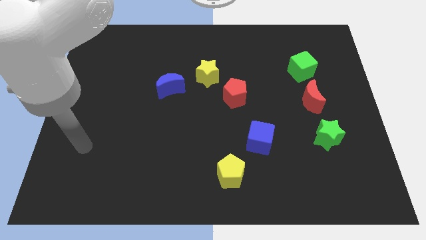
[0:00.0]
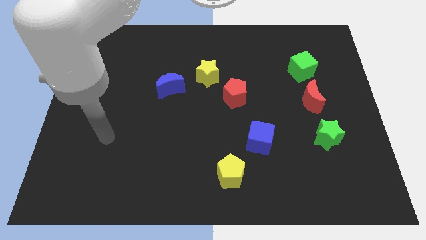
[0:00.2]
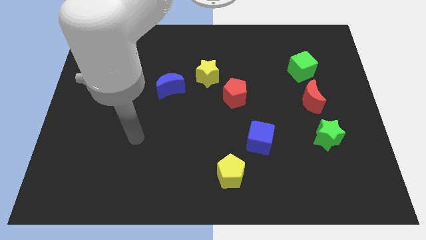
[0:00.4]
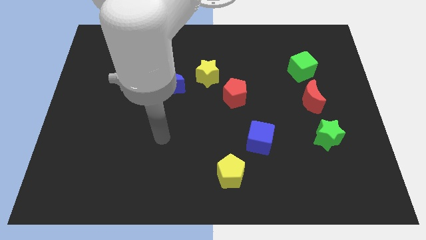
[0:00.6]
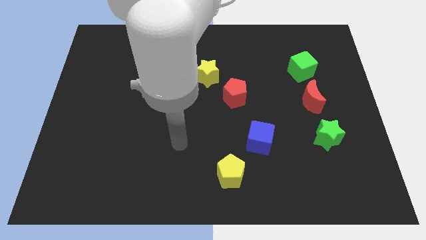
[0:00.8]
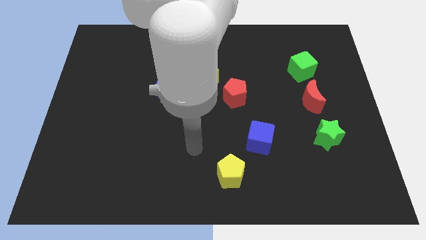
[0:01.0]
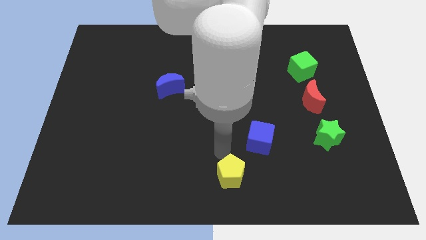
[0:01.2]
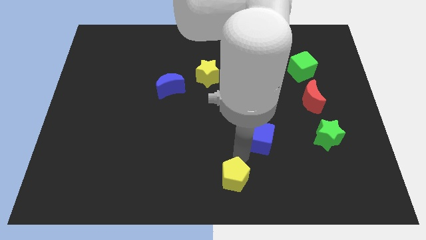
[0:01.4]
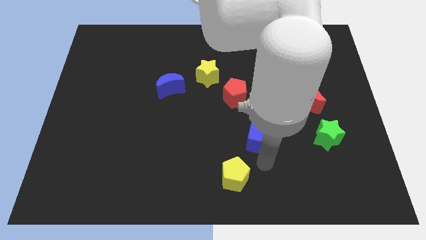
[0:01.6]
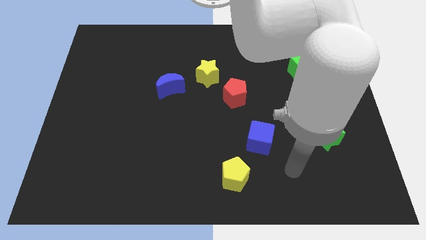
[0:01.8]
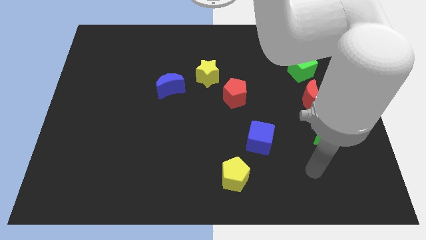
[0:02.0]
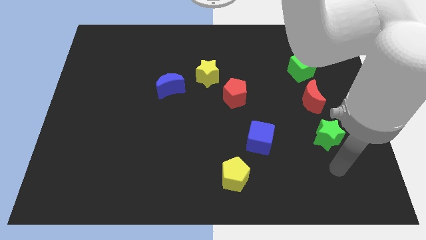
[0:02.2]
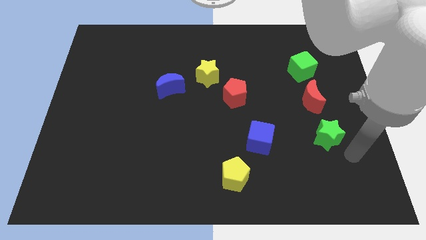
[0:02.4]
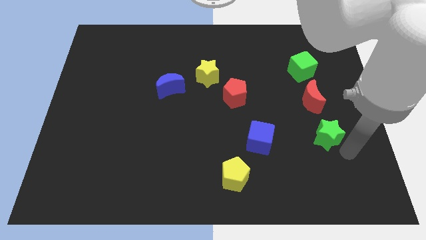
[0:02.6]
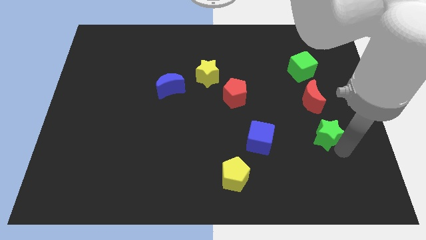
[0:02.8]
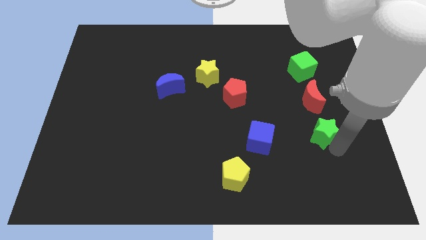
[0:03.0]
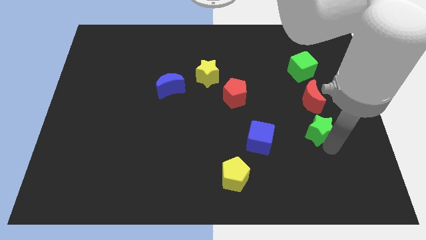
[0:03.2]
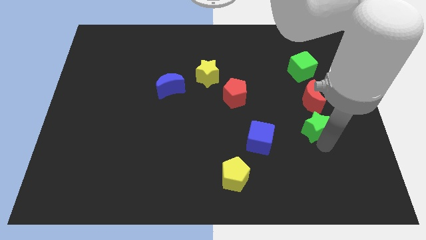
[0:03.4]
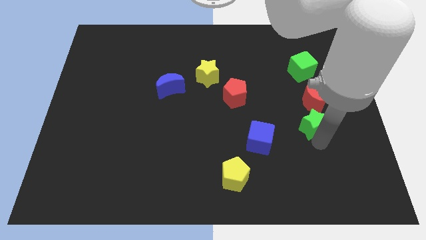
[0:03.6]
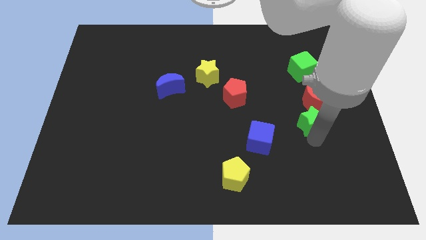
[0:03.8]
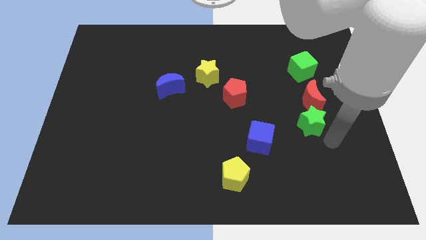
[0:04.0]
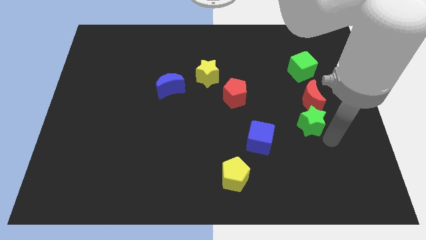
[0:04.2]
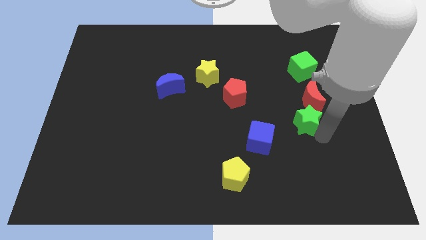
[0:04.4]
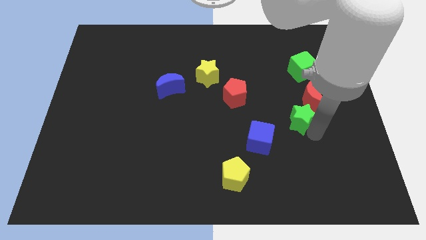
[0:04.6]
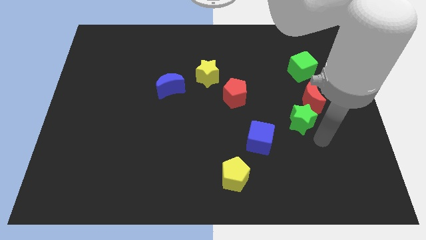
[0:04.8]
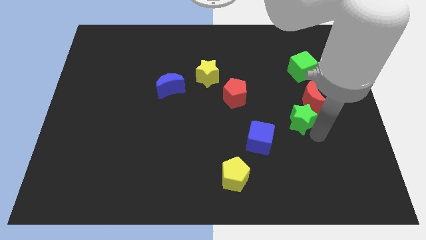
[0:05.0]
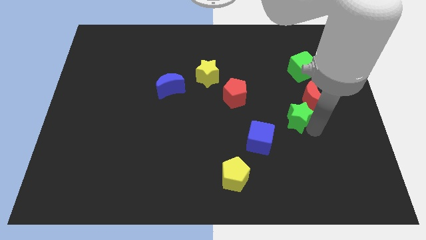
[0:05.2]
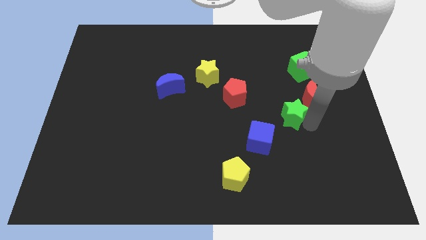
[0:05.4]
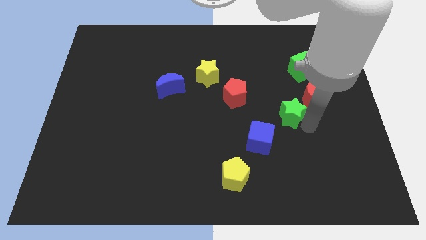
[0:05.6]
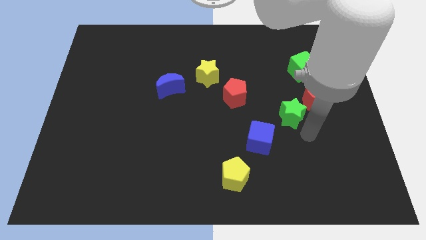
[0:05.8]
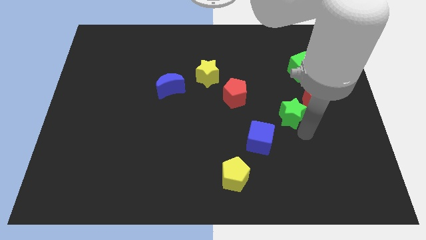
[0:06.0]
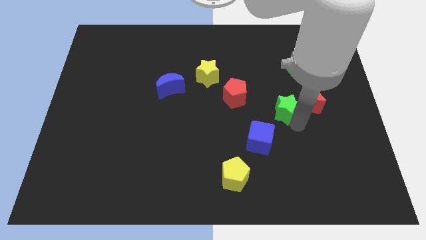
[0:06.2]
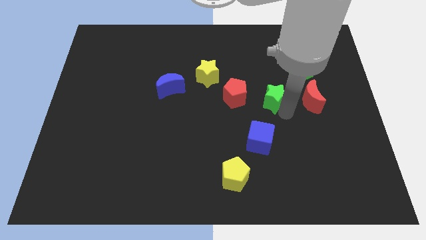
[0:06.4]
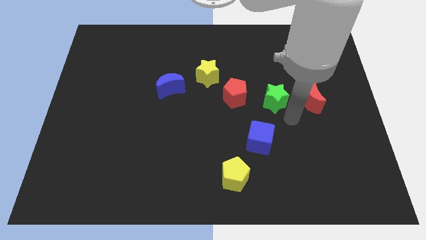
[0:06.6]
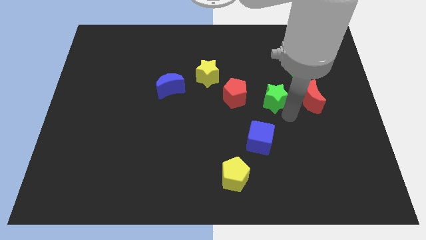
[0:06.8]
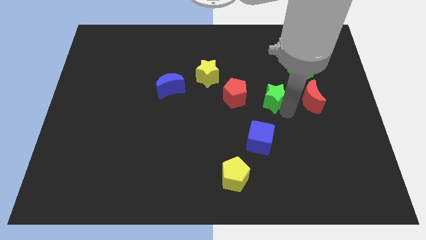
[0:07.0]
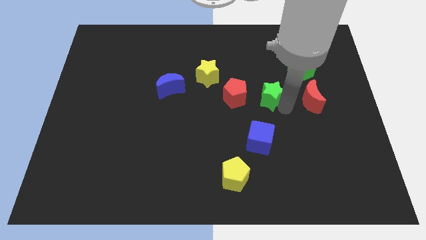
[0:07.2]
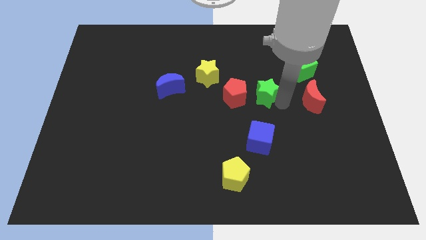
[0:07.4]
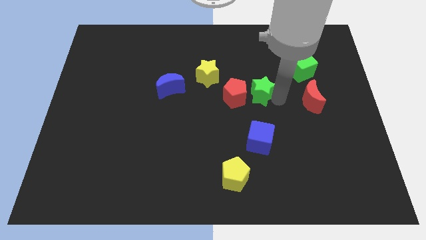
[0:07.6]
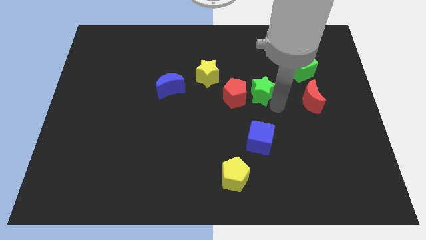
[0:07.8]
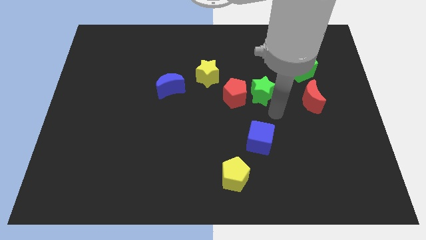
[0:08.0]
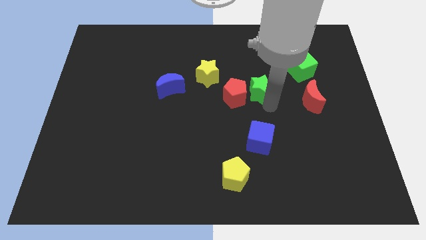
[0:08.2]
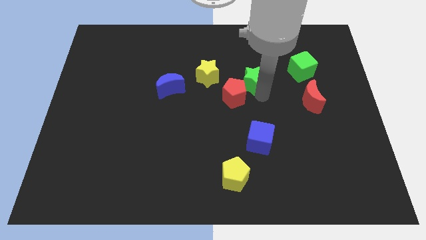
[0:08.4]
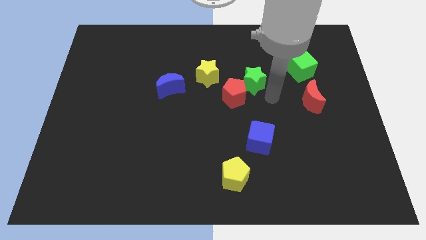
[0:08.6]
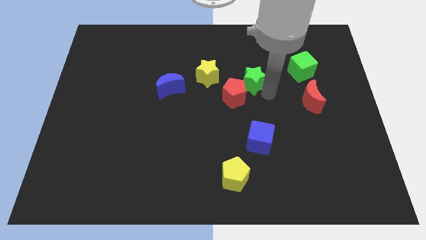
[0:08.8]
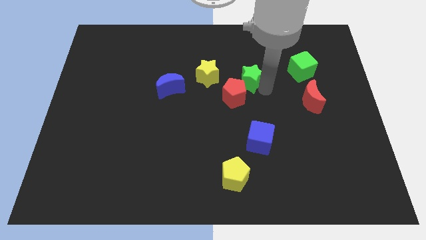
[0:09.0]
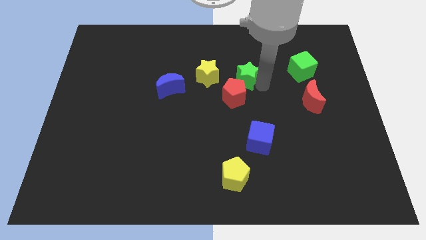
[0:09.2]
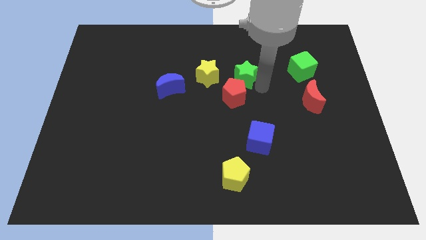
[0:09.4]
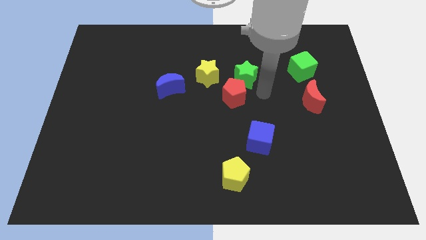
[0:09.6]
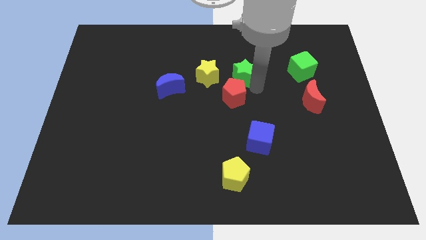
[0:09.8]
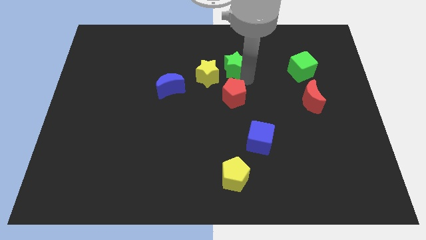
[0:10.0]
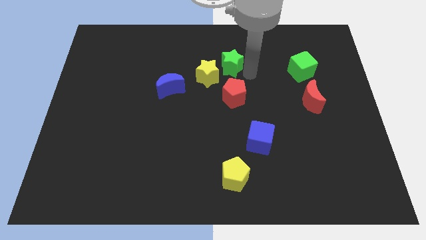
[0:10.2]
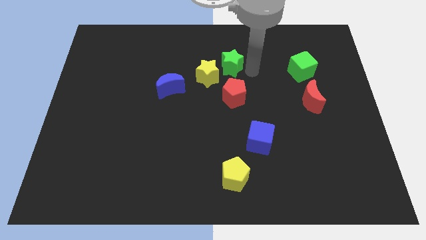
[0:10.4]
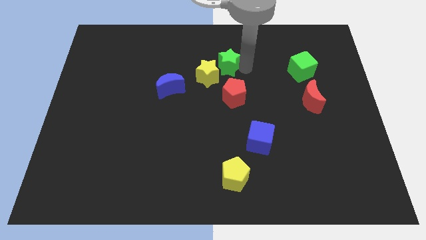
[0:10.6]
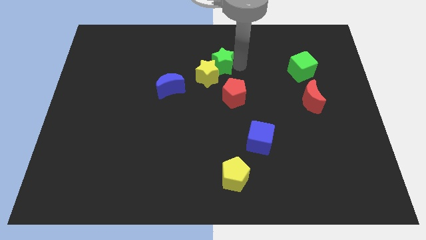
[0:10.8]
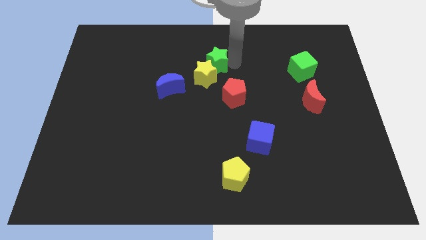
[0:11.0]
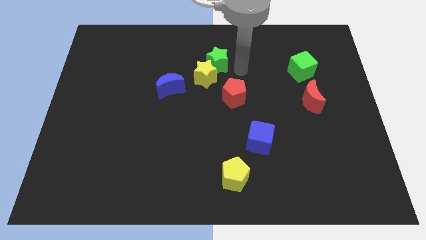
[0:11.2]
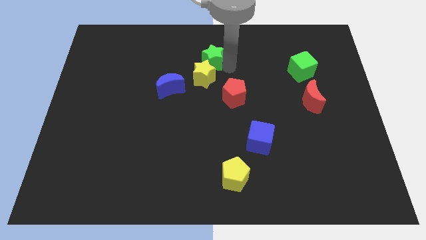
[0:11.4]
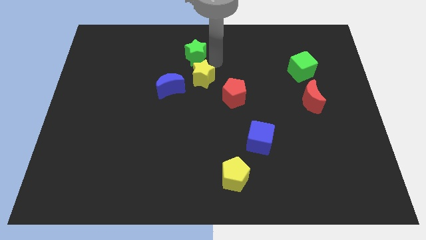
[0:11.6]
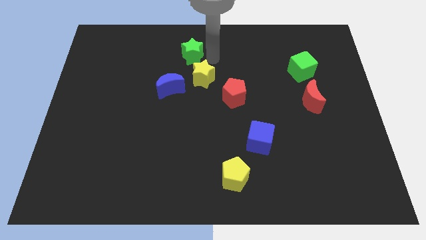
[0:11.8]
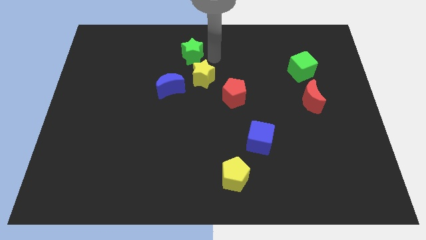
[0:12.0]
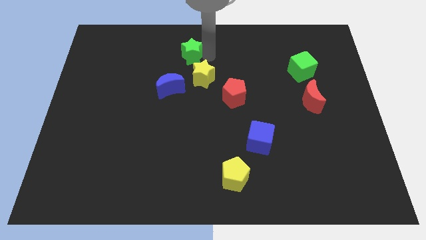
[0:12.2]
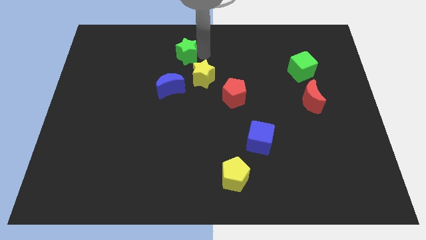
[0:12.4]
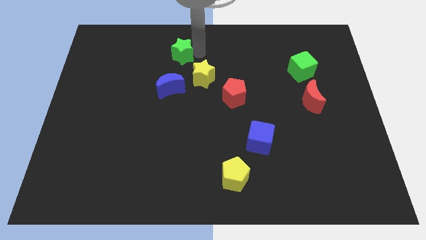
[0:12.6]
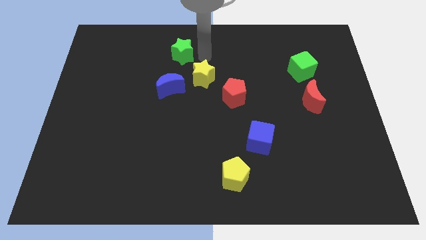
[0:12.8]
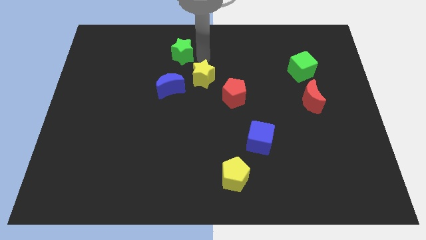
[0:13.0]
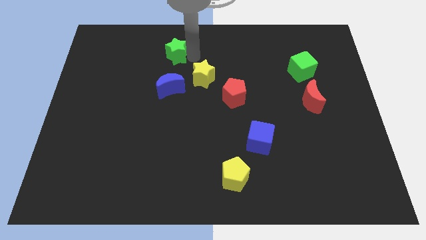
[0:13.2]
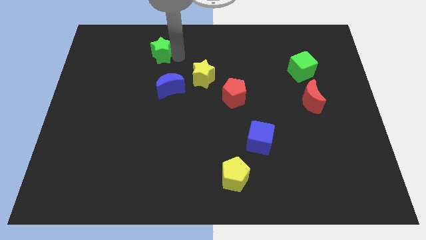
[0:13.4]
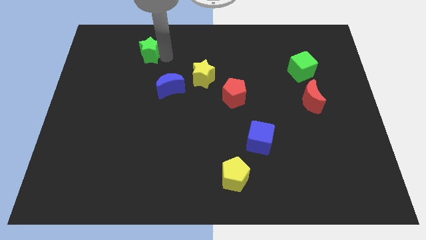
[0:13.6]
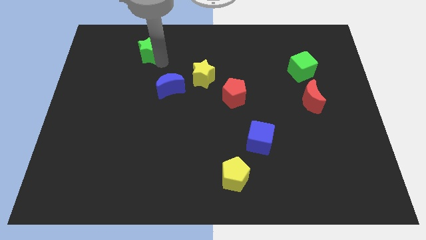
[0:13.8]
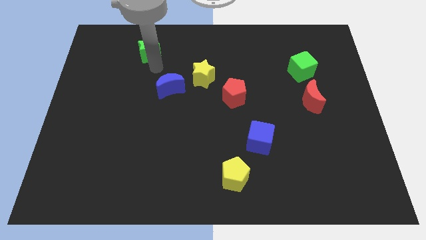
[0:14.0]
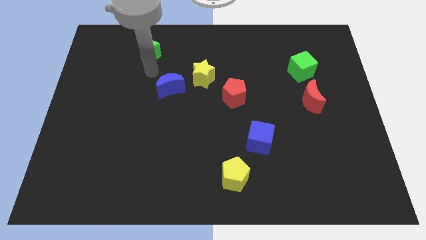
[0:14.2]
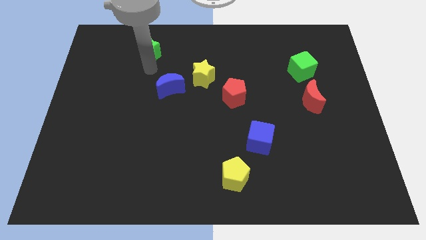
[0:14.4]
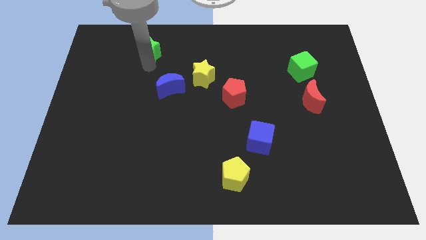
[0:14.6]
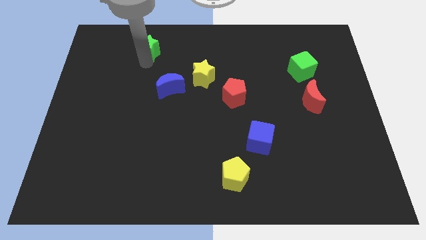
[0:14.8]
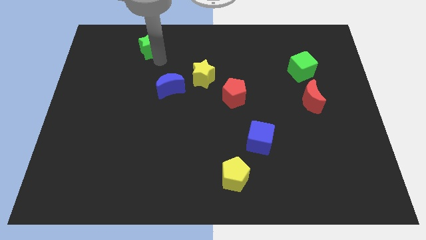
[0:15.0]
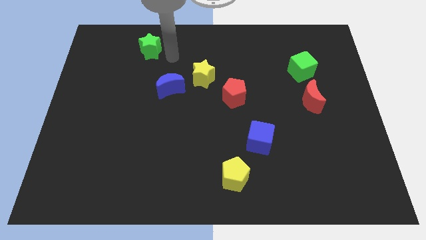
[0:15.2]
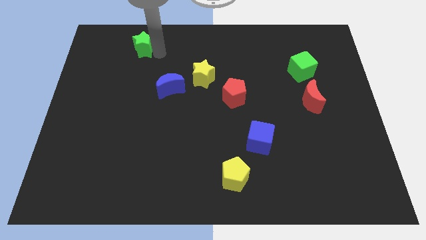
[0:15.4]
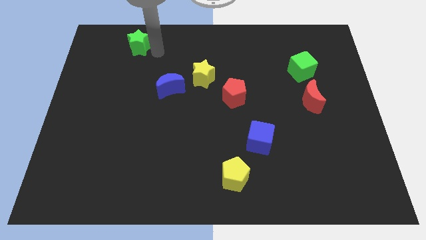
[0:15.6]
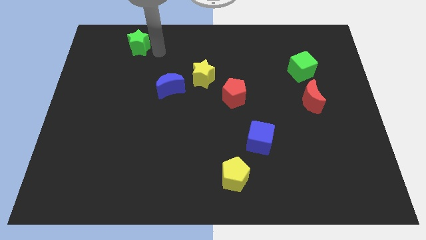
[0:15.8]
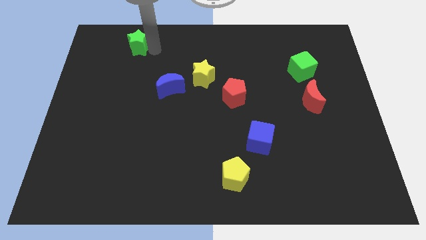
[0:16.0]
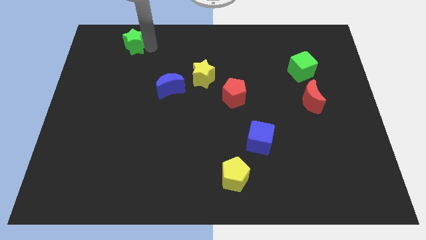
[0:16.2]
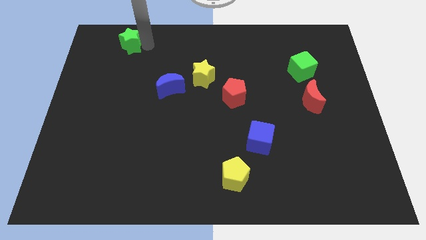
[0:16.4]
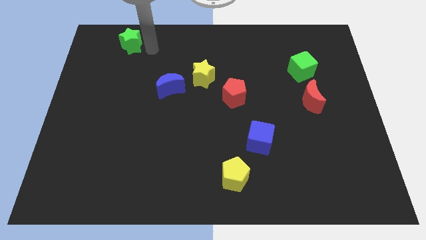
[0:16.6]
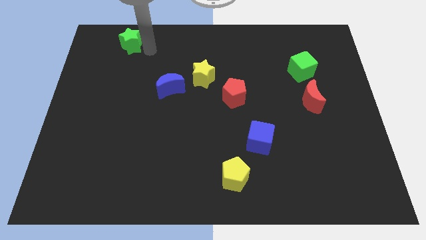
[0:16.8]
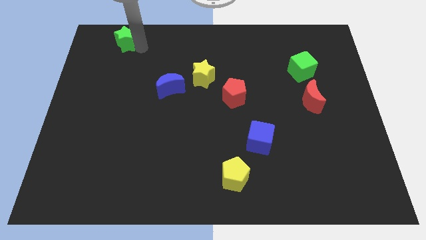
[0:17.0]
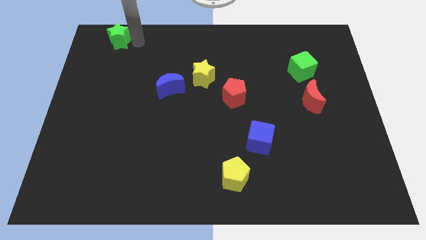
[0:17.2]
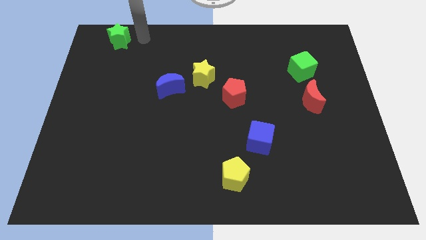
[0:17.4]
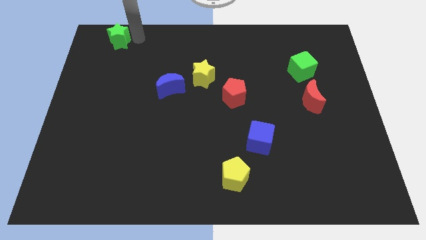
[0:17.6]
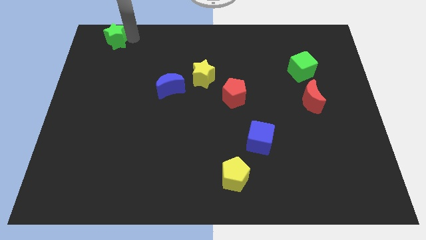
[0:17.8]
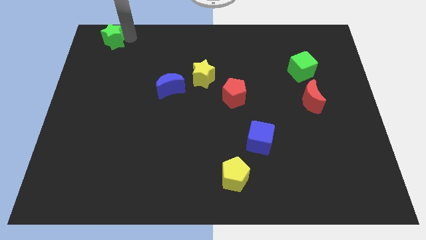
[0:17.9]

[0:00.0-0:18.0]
put the green star to the top left
